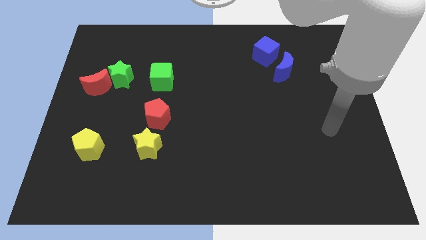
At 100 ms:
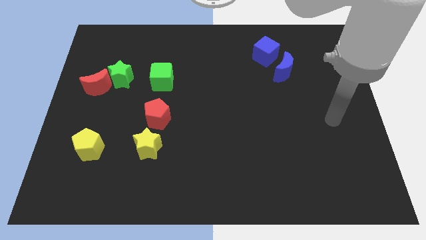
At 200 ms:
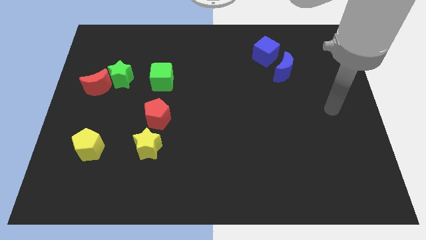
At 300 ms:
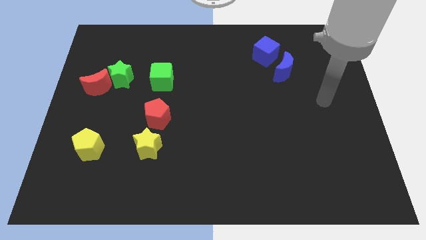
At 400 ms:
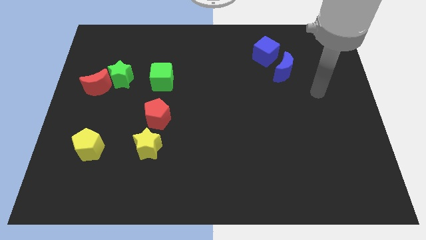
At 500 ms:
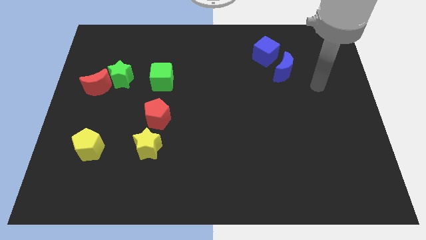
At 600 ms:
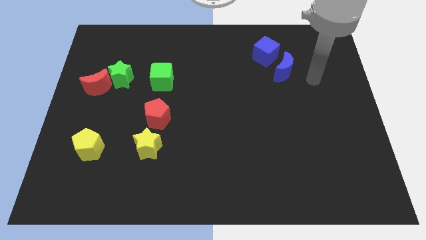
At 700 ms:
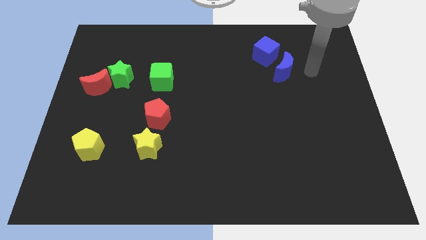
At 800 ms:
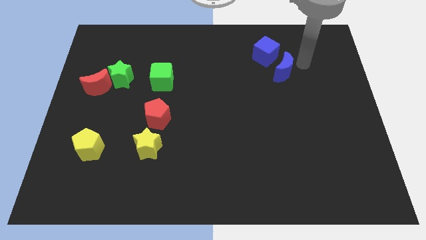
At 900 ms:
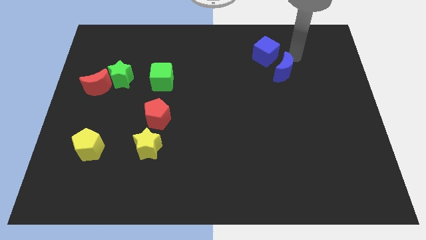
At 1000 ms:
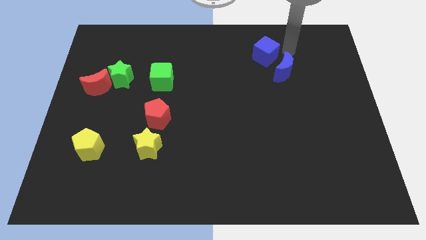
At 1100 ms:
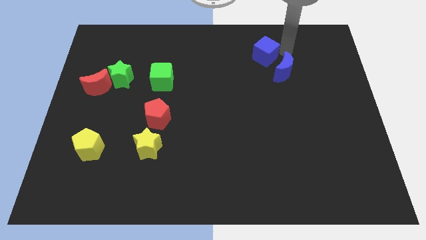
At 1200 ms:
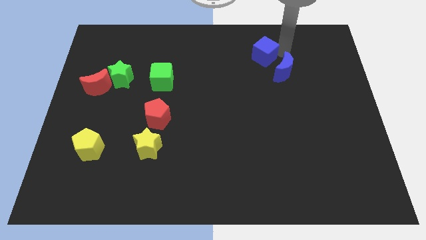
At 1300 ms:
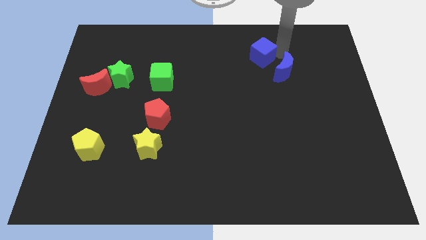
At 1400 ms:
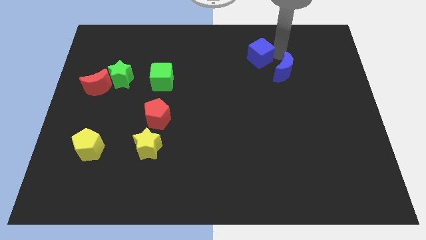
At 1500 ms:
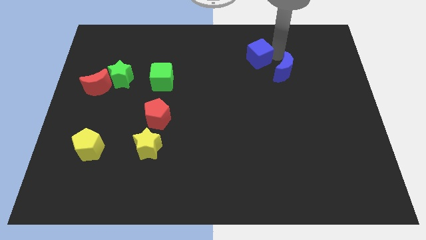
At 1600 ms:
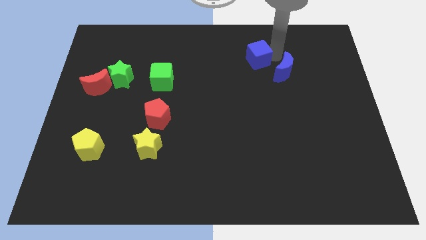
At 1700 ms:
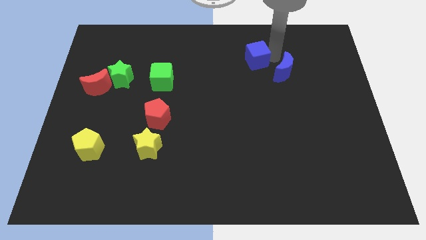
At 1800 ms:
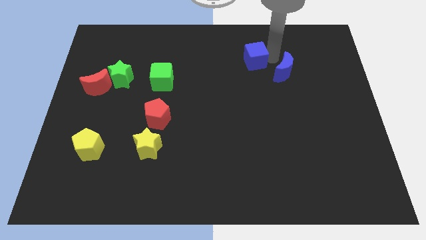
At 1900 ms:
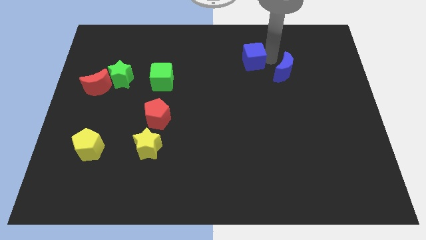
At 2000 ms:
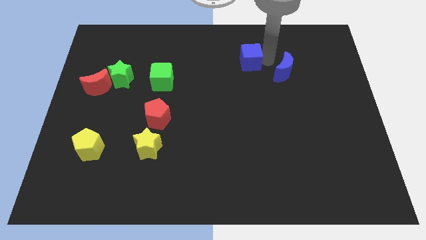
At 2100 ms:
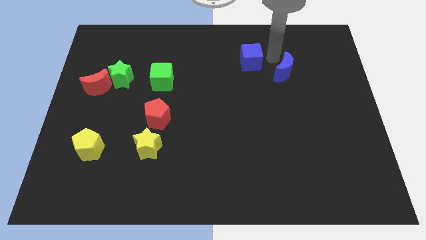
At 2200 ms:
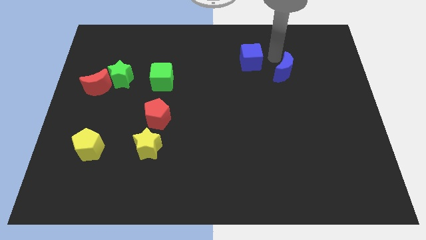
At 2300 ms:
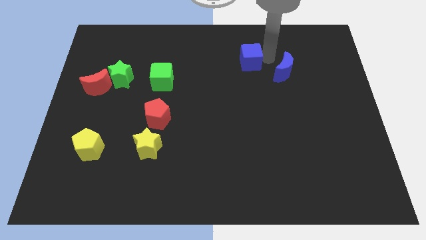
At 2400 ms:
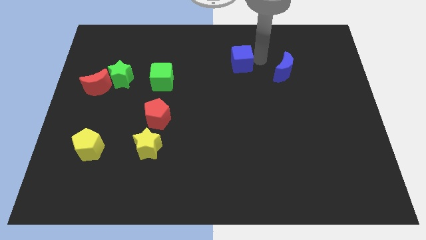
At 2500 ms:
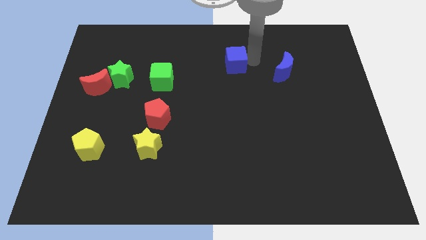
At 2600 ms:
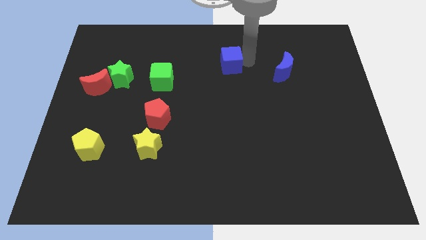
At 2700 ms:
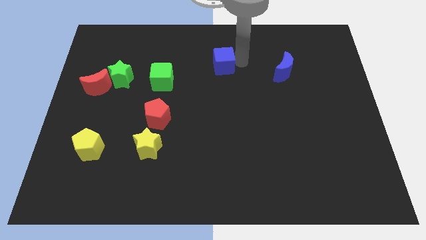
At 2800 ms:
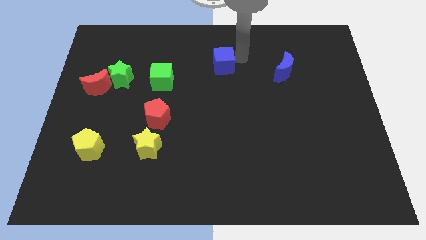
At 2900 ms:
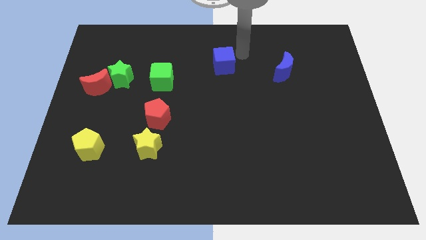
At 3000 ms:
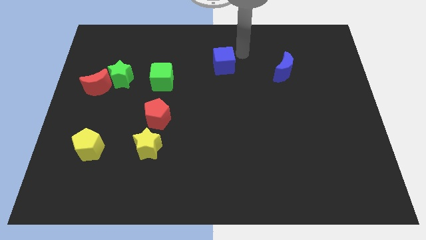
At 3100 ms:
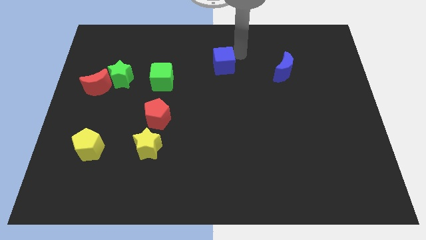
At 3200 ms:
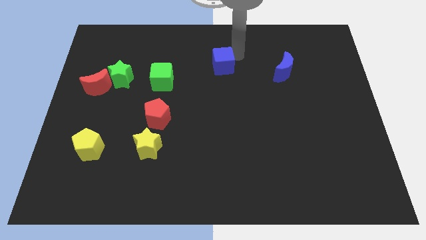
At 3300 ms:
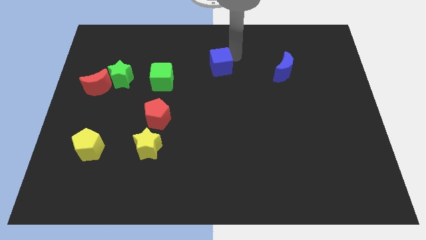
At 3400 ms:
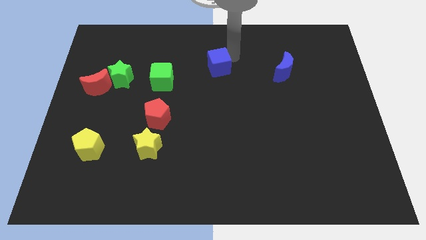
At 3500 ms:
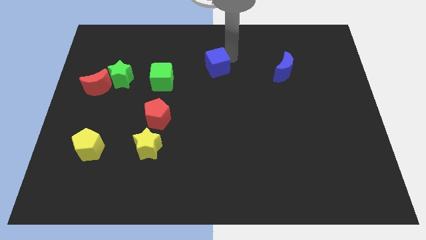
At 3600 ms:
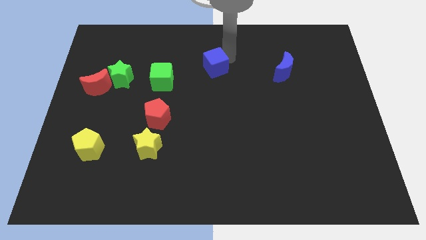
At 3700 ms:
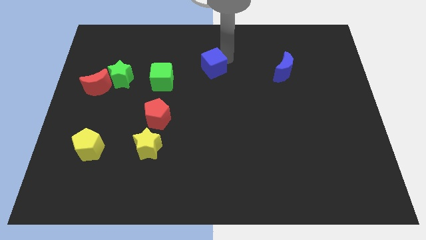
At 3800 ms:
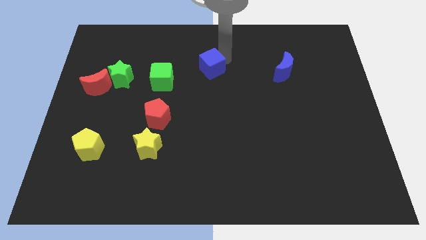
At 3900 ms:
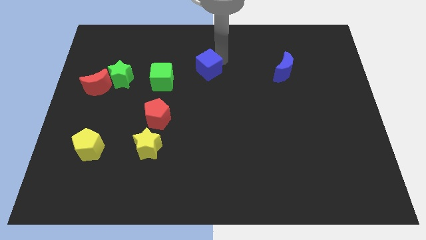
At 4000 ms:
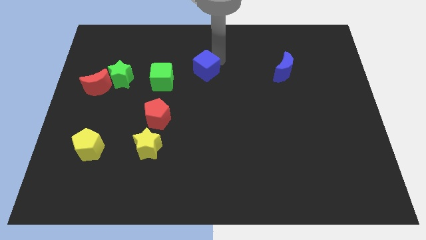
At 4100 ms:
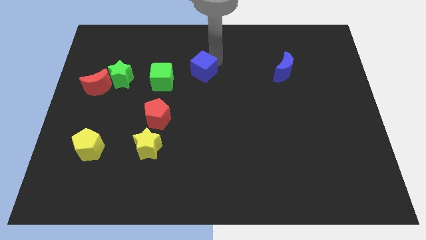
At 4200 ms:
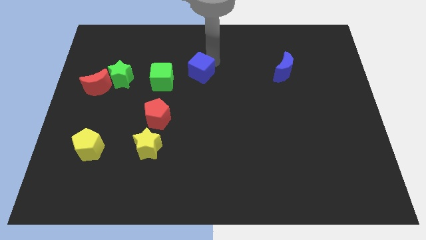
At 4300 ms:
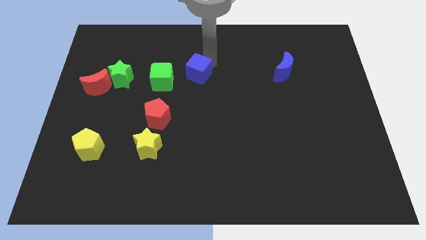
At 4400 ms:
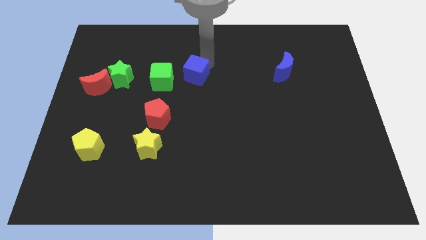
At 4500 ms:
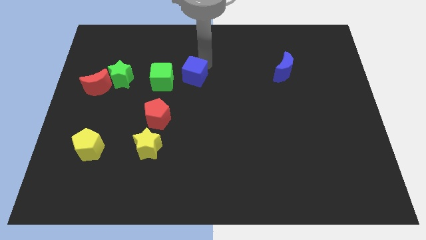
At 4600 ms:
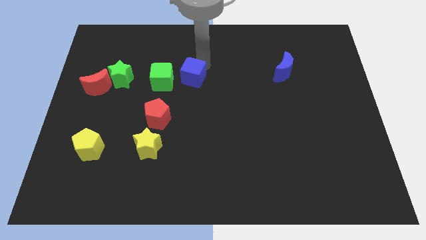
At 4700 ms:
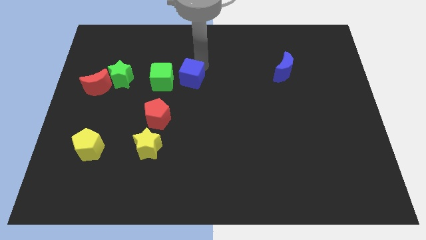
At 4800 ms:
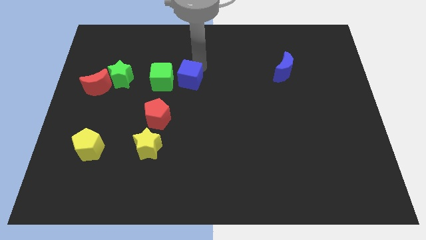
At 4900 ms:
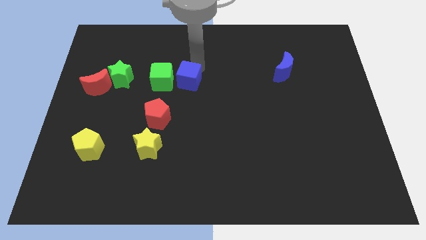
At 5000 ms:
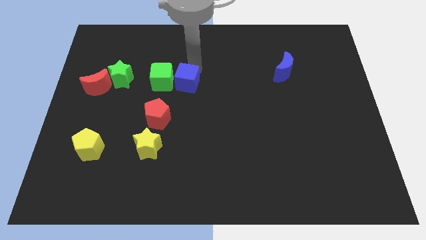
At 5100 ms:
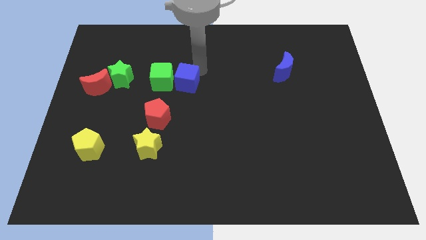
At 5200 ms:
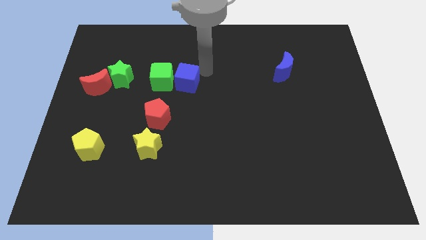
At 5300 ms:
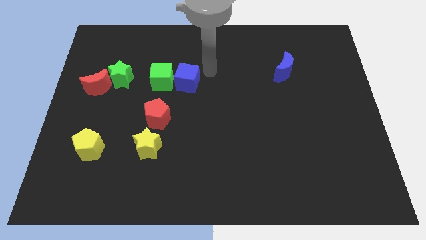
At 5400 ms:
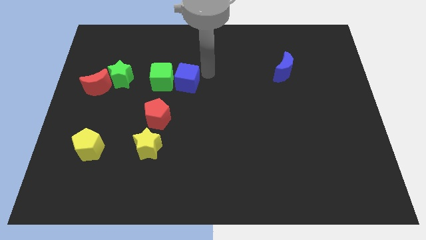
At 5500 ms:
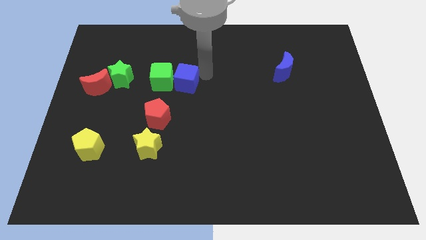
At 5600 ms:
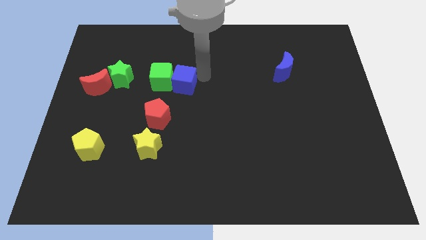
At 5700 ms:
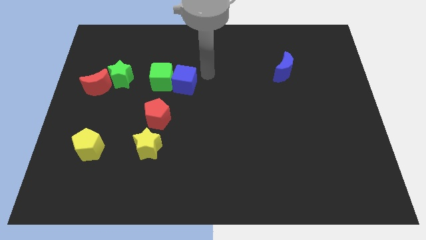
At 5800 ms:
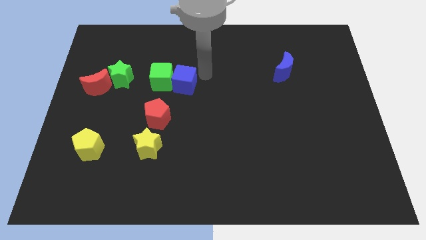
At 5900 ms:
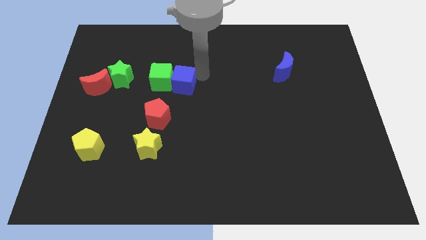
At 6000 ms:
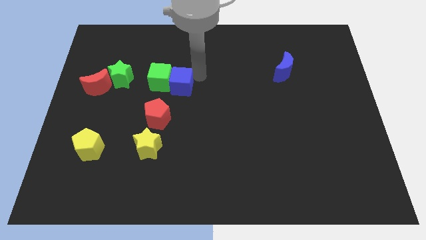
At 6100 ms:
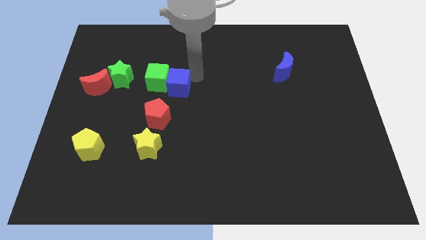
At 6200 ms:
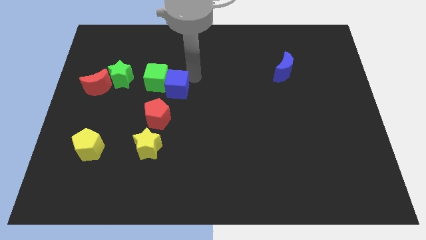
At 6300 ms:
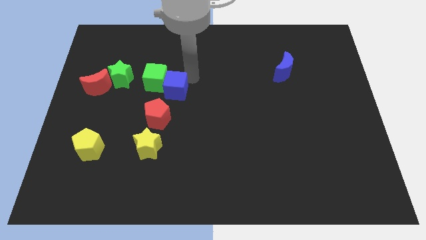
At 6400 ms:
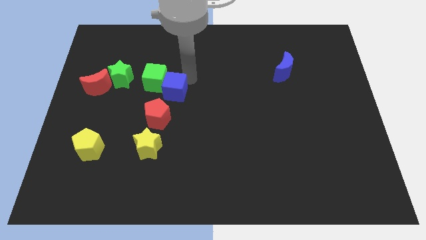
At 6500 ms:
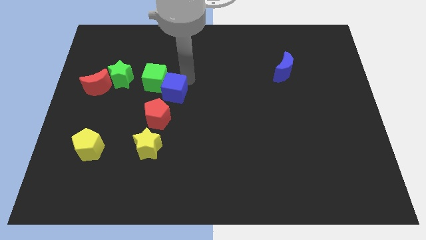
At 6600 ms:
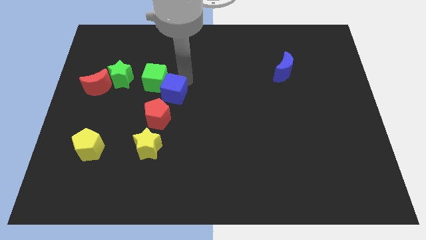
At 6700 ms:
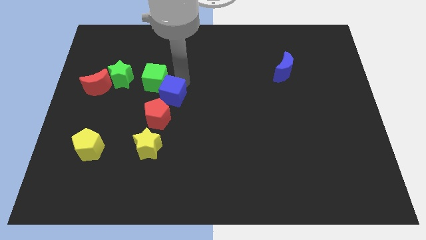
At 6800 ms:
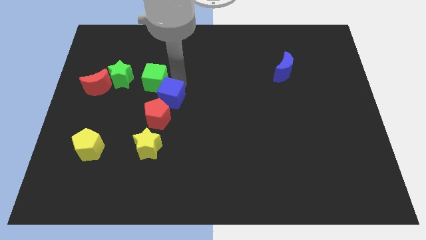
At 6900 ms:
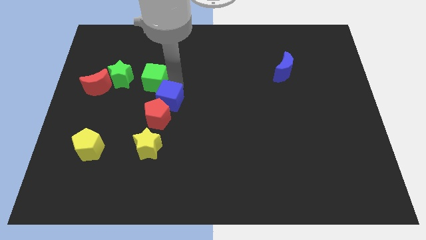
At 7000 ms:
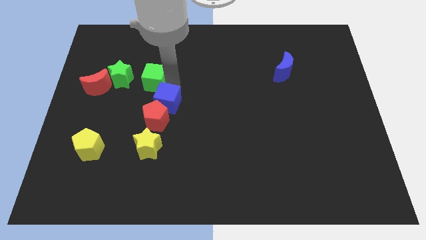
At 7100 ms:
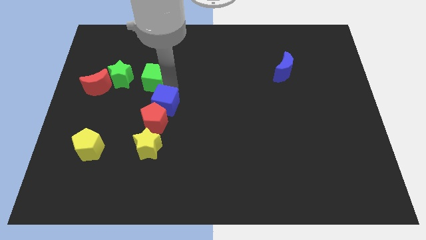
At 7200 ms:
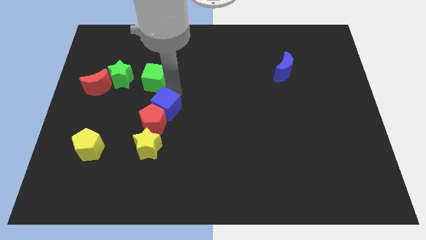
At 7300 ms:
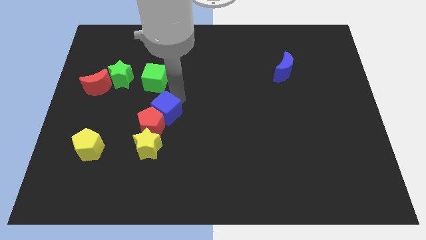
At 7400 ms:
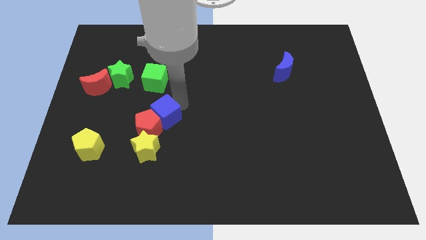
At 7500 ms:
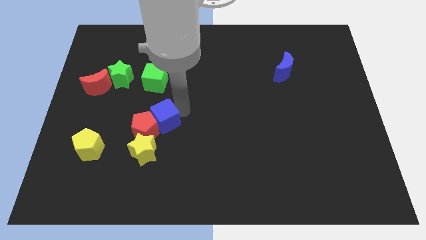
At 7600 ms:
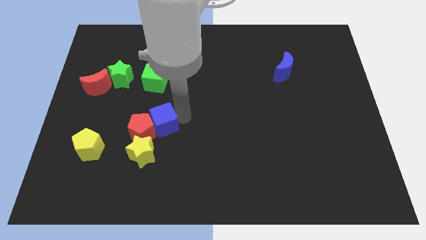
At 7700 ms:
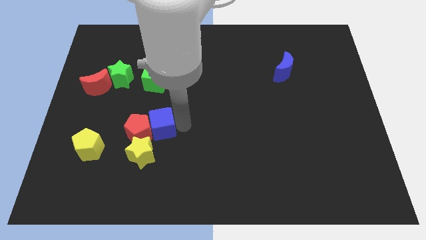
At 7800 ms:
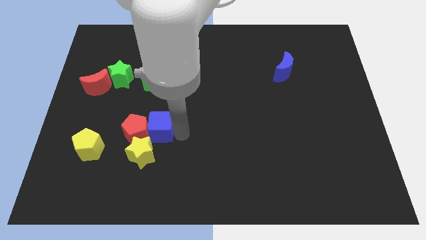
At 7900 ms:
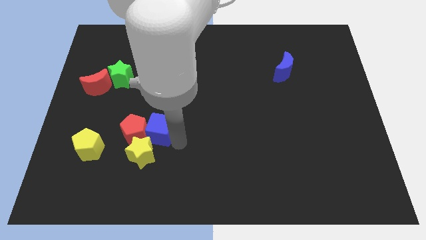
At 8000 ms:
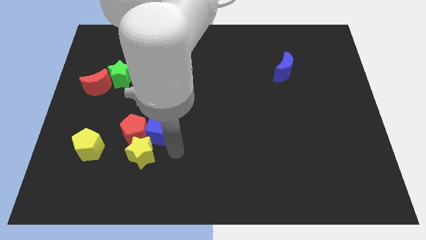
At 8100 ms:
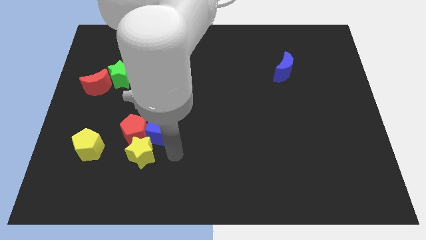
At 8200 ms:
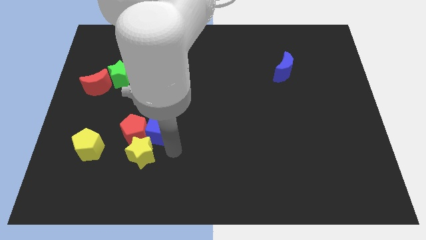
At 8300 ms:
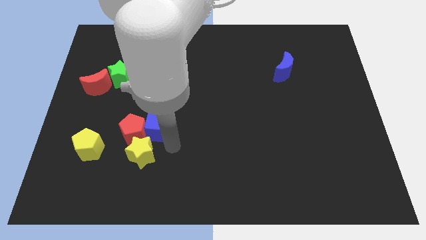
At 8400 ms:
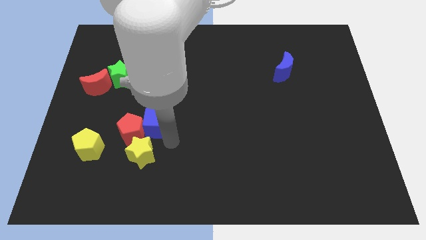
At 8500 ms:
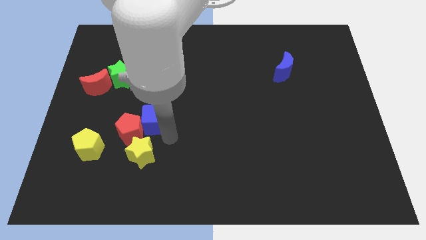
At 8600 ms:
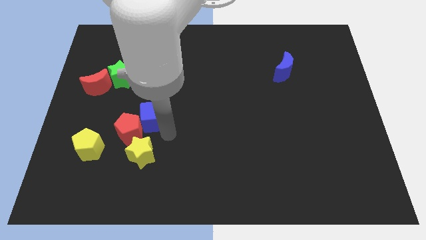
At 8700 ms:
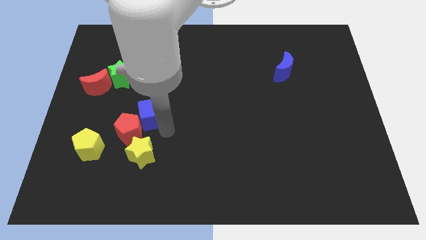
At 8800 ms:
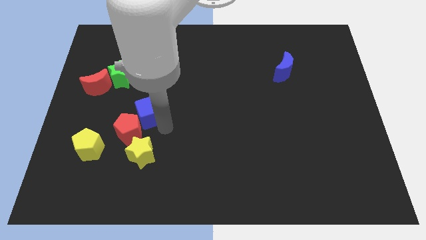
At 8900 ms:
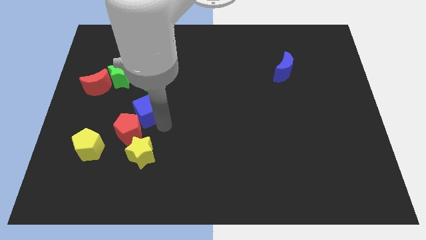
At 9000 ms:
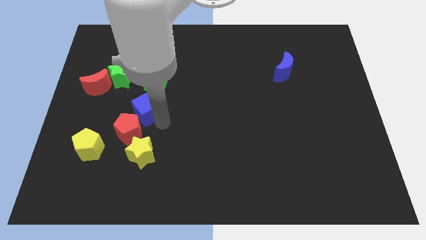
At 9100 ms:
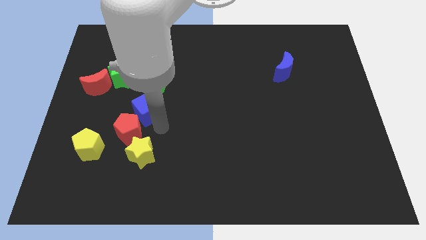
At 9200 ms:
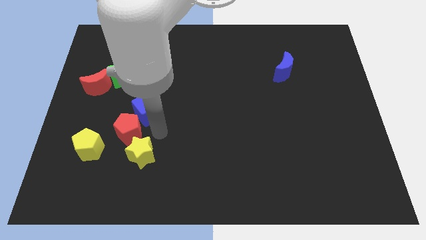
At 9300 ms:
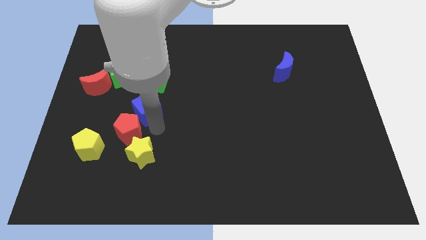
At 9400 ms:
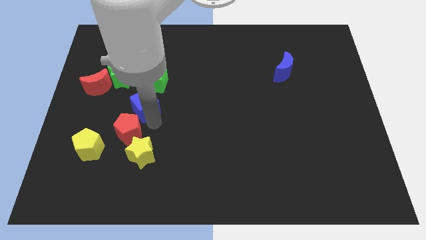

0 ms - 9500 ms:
slide the blue cube to the bottom right of the green star
